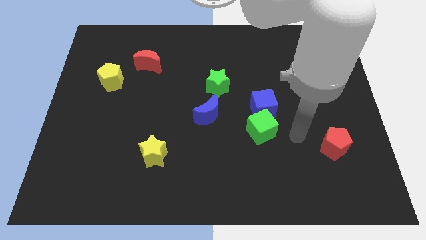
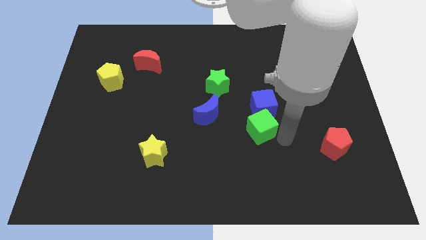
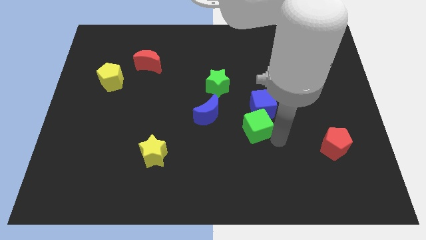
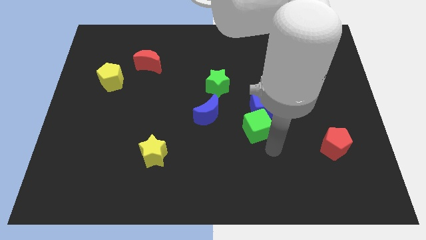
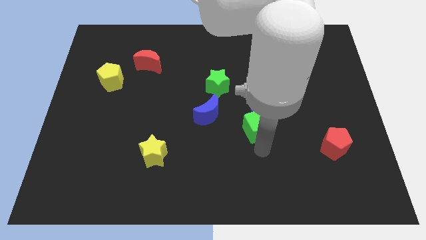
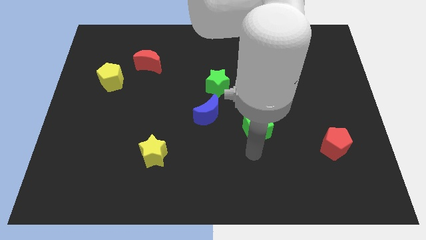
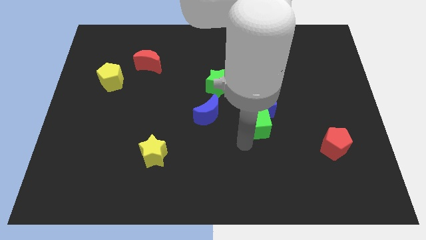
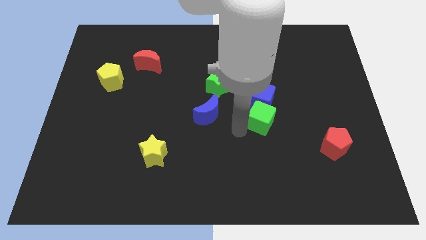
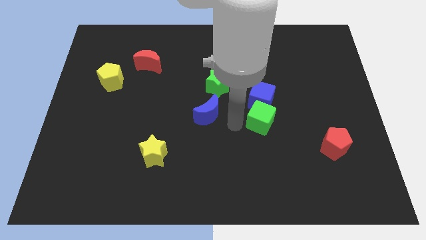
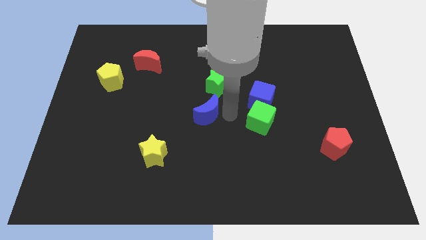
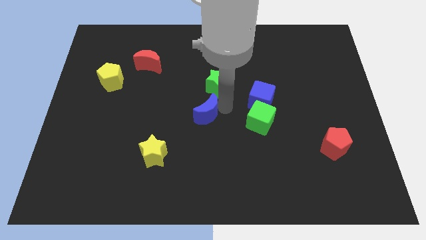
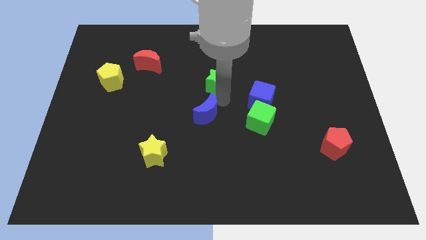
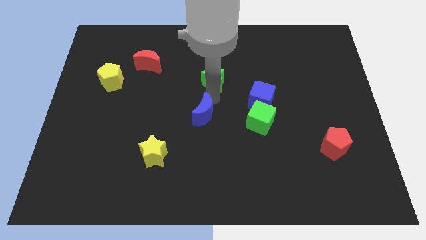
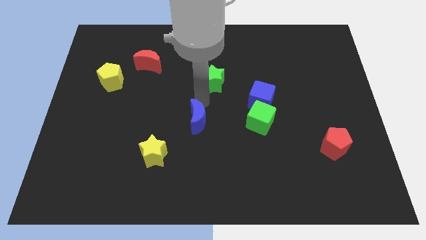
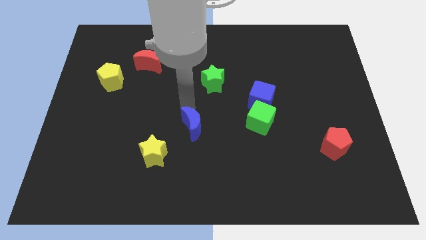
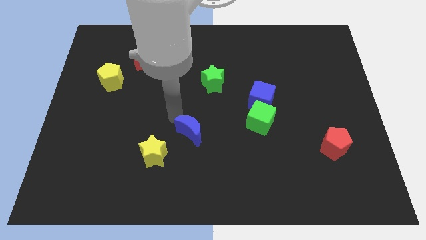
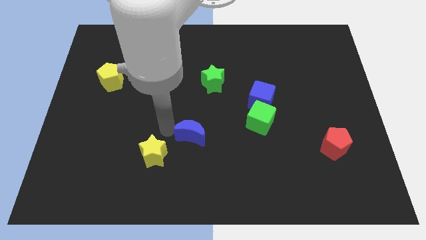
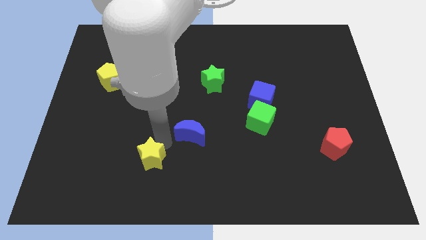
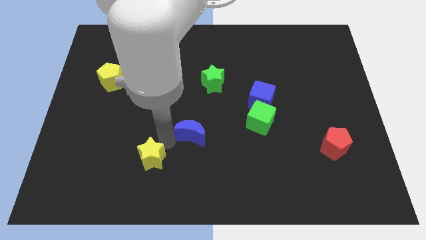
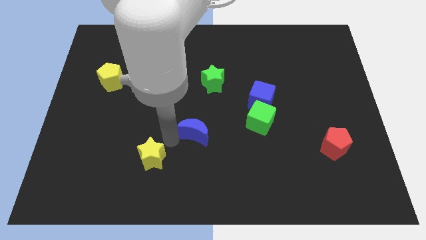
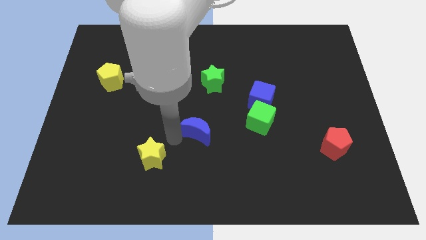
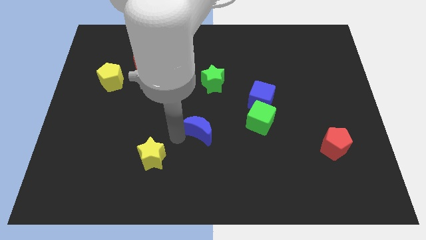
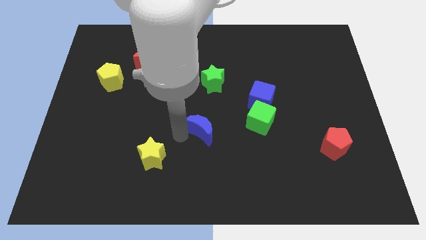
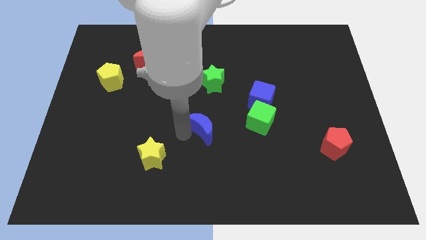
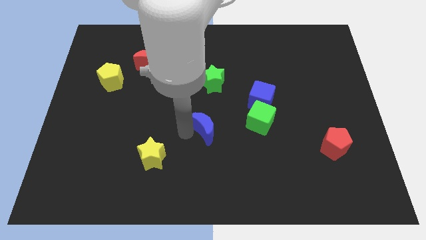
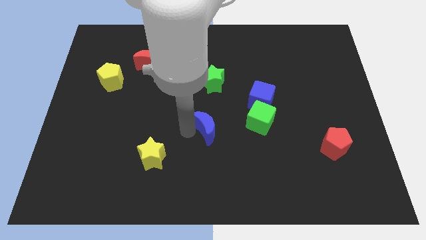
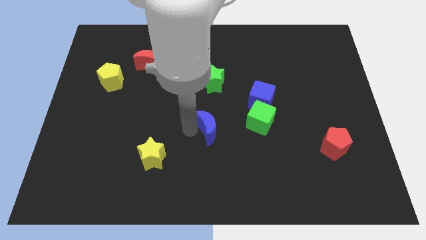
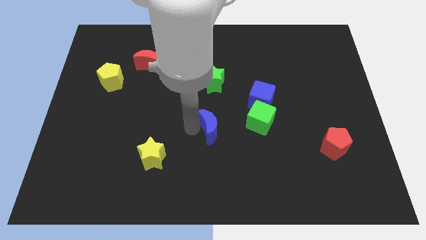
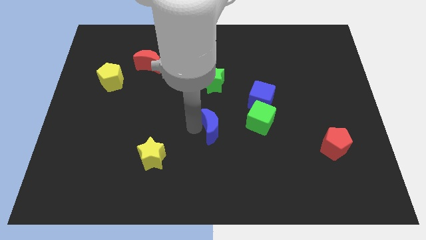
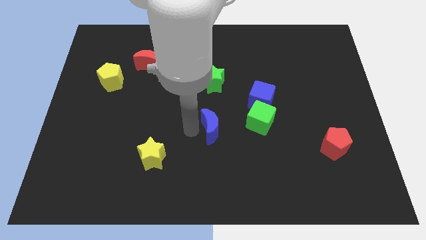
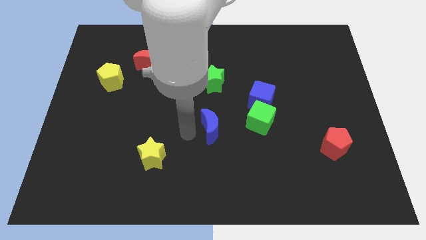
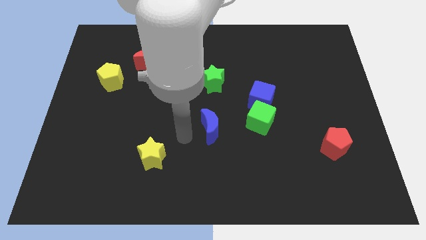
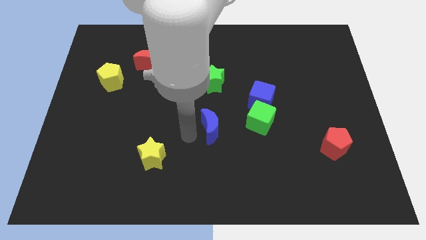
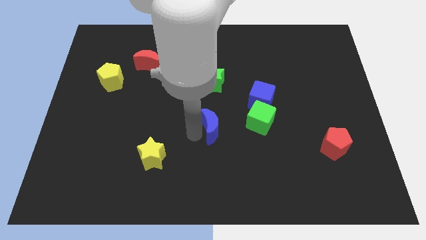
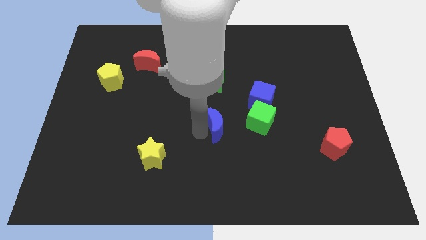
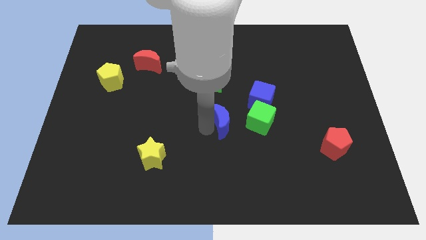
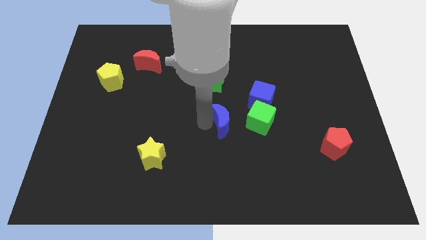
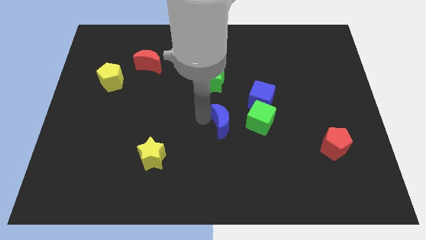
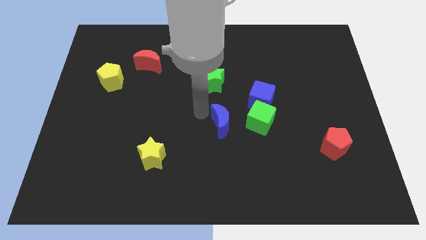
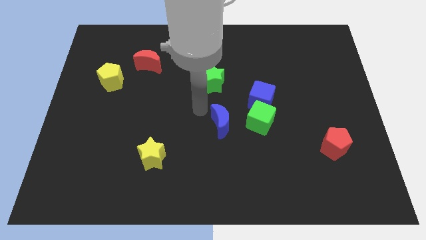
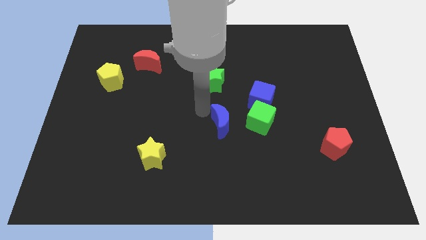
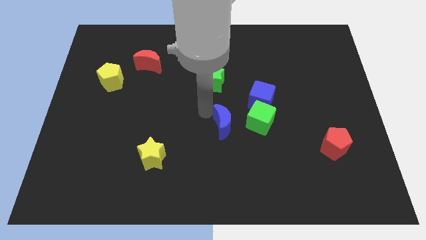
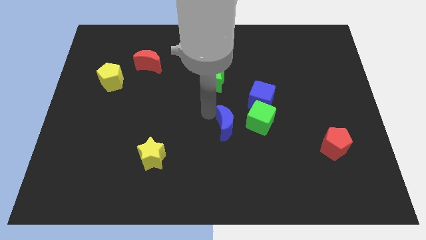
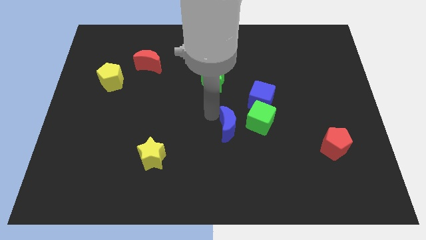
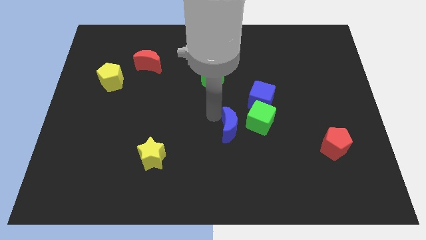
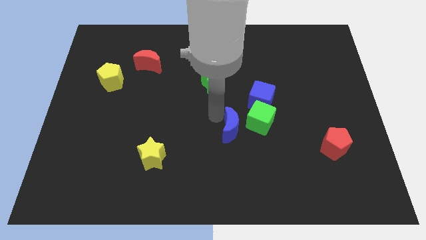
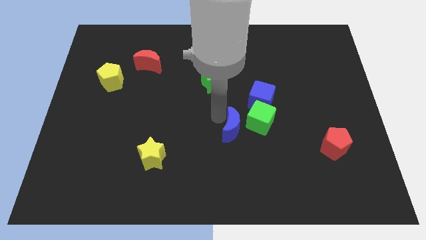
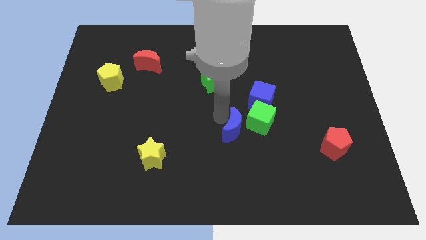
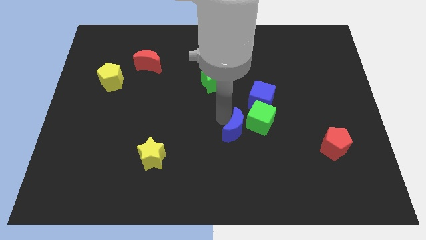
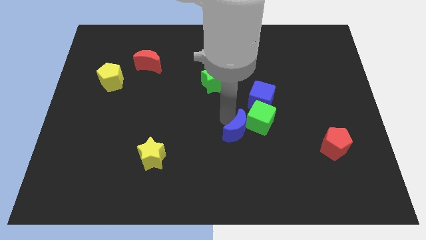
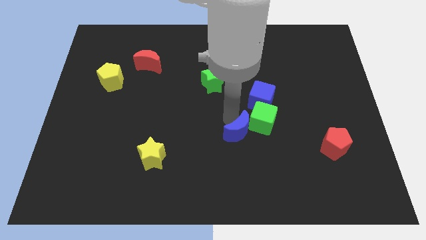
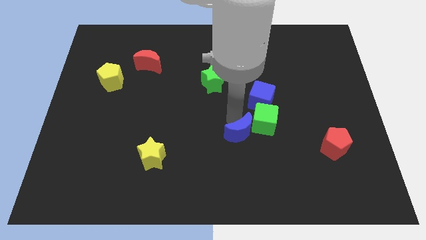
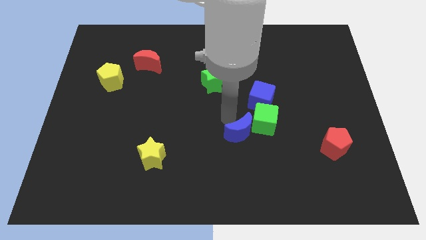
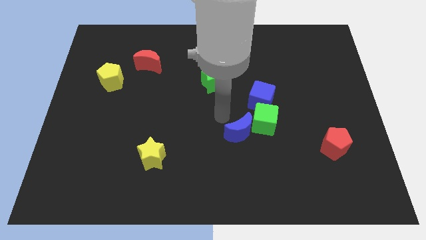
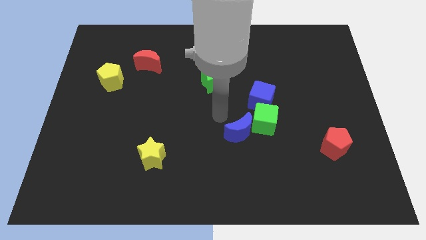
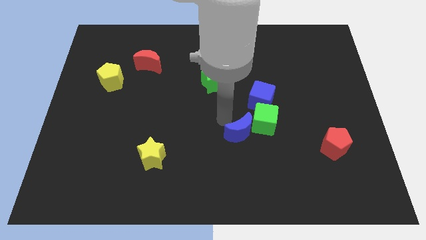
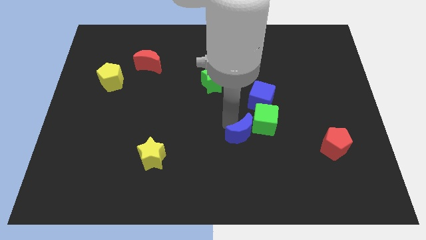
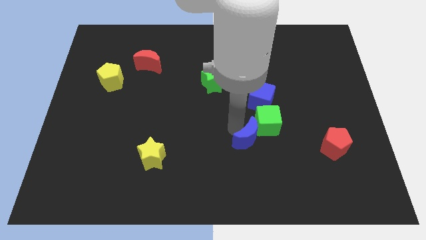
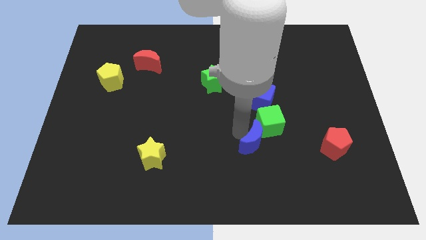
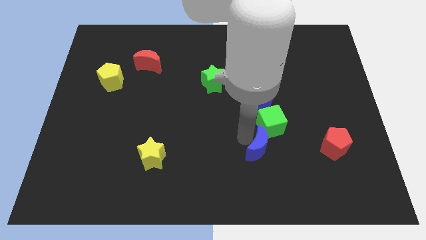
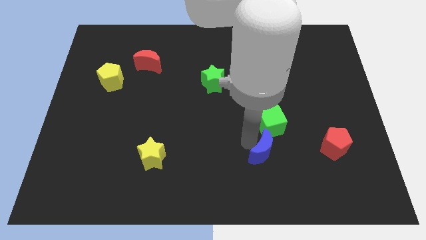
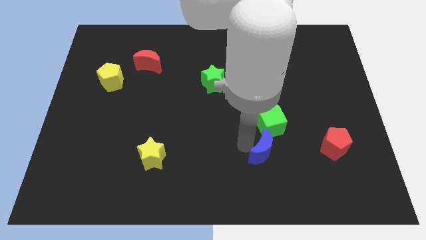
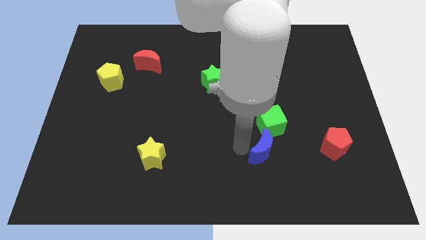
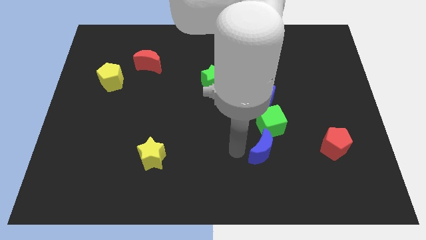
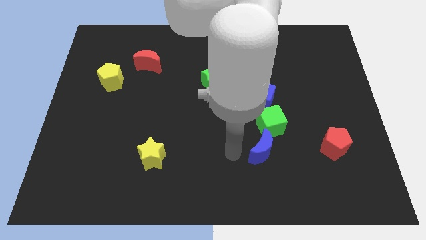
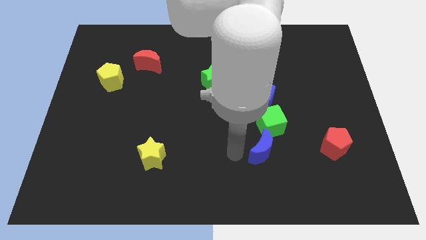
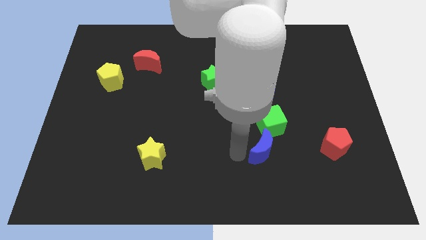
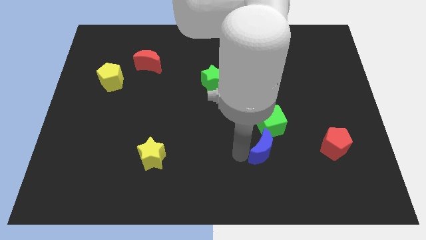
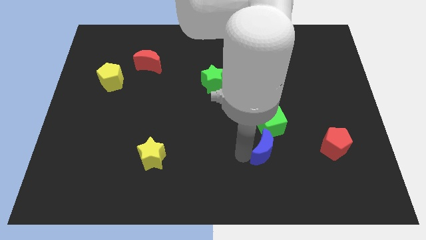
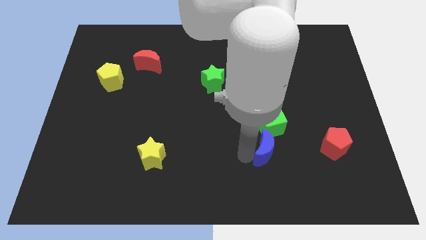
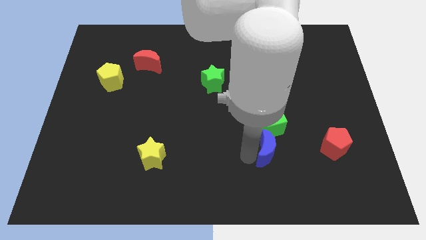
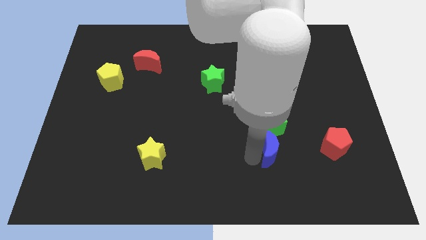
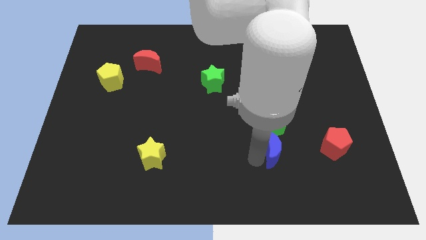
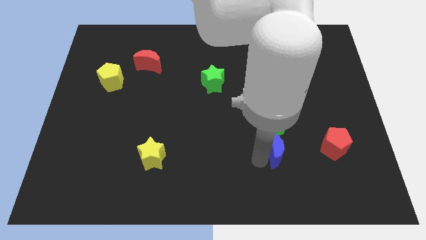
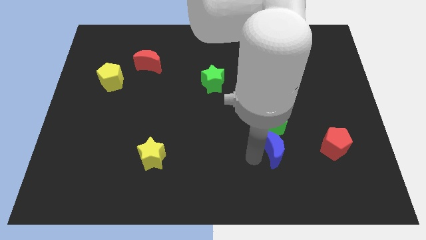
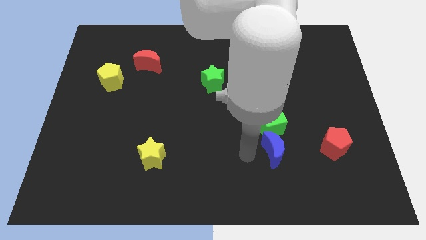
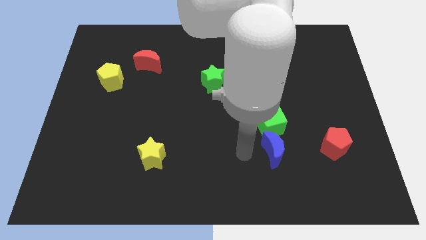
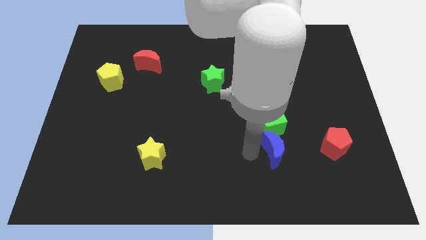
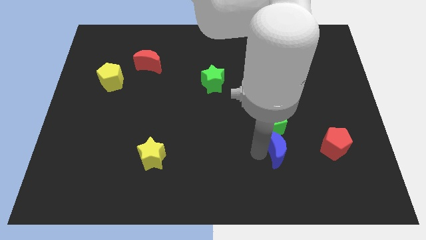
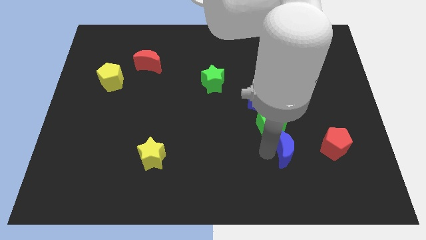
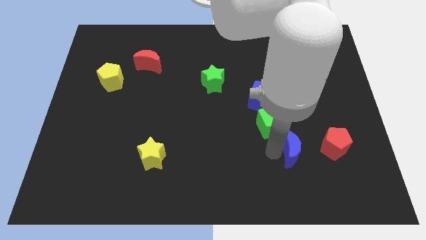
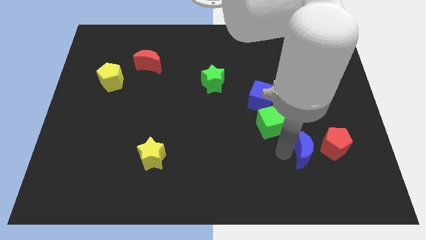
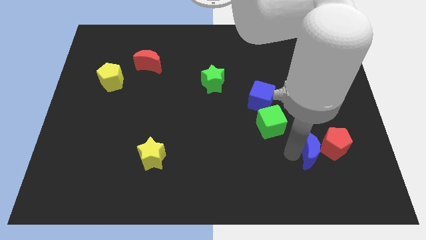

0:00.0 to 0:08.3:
push the blue moon next to the red pentagon
